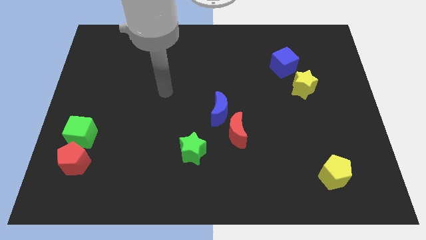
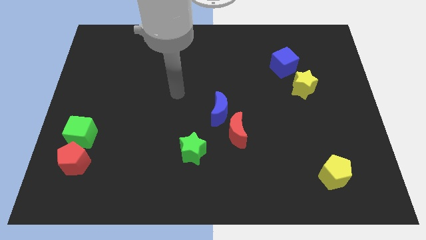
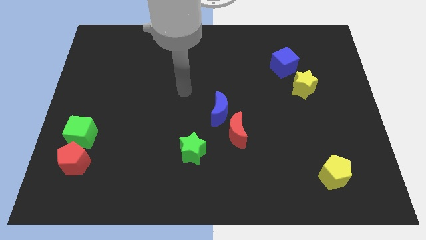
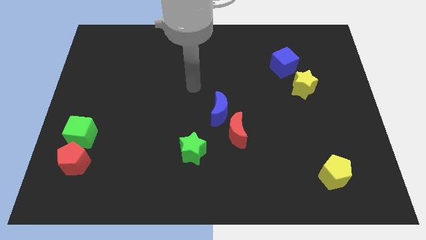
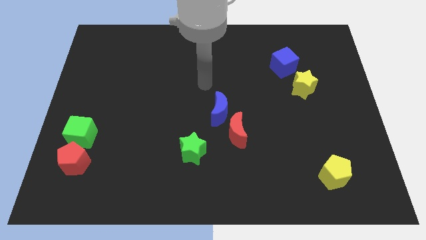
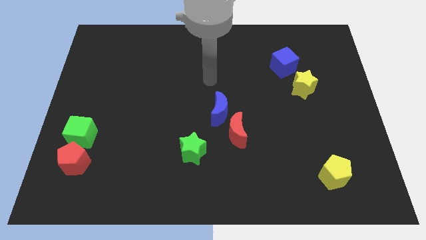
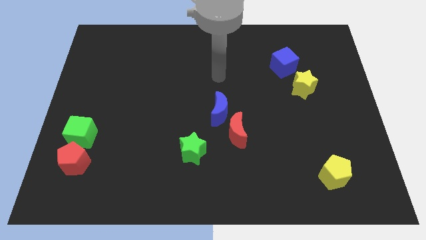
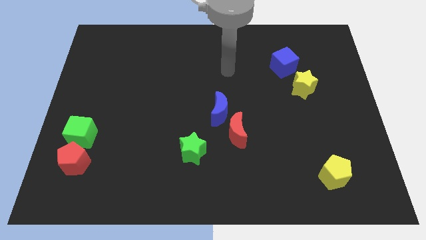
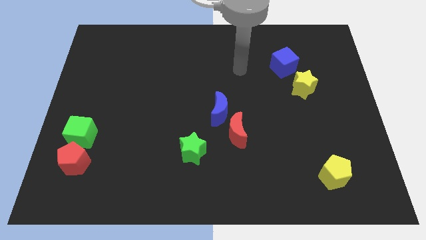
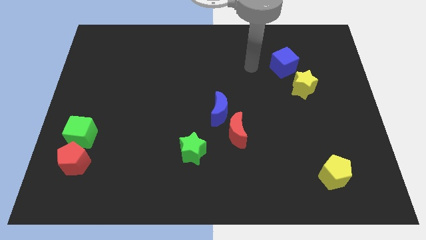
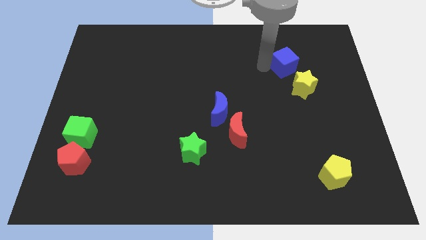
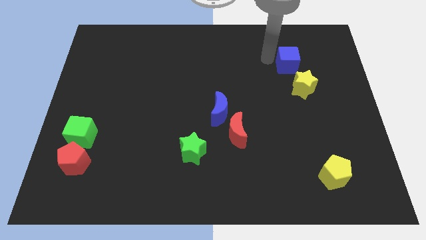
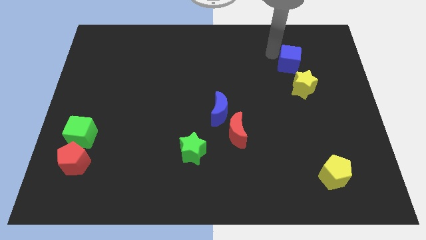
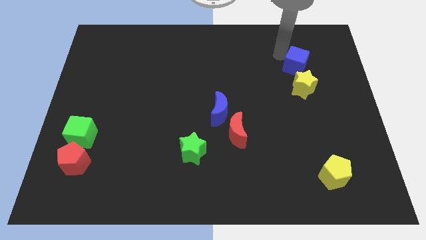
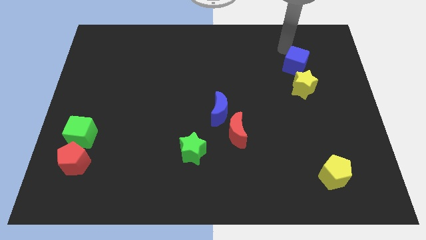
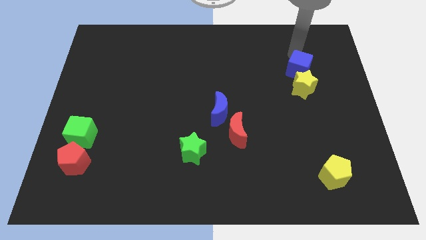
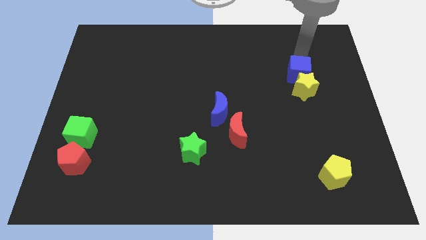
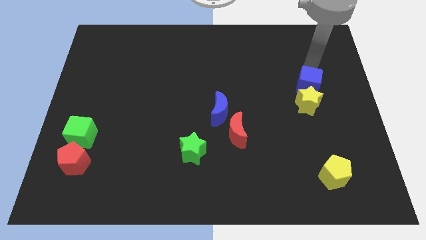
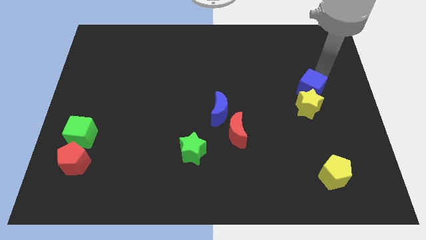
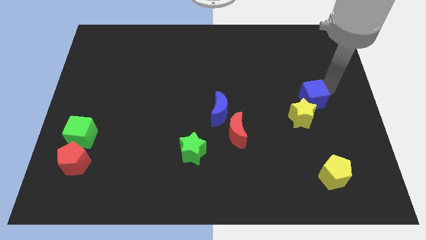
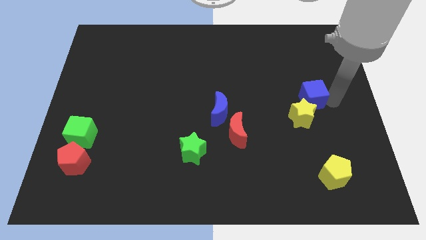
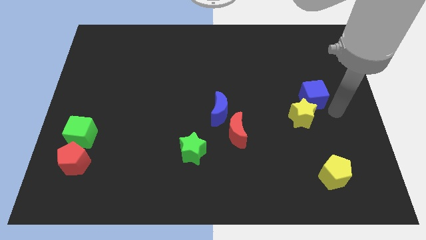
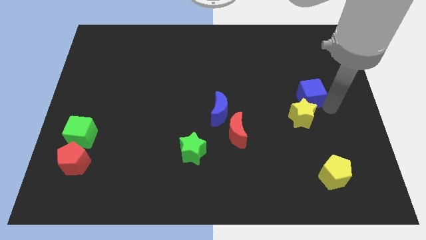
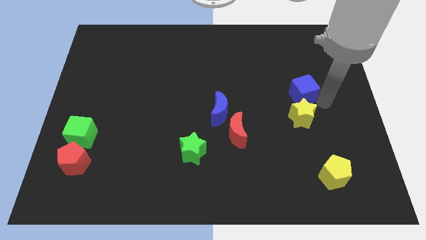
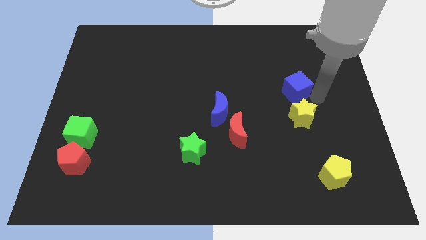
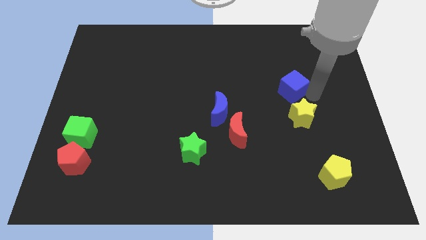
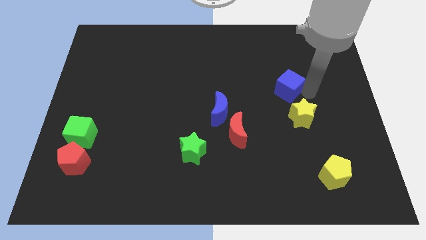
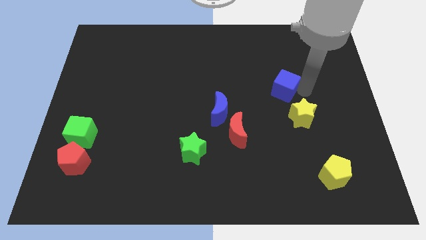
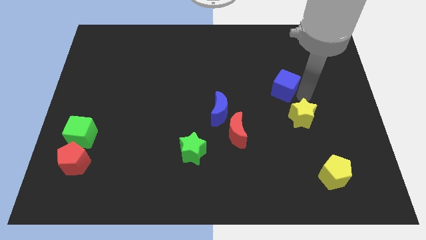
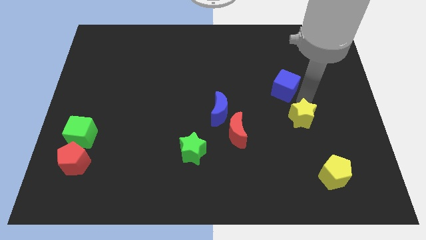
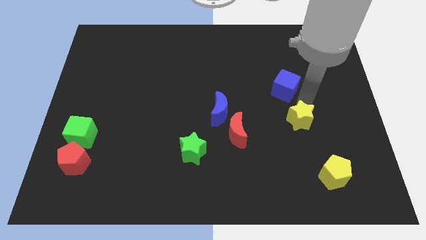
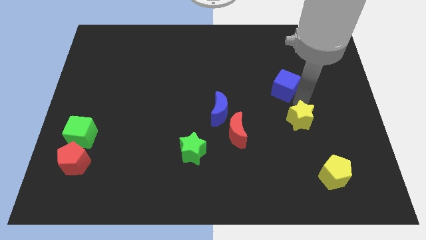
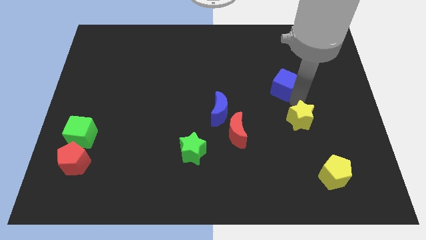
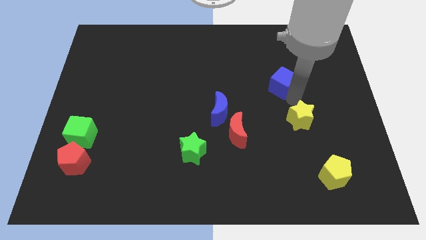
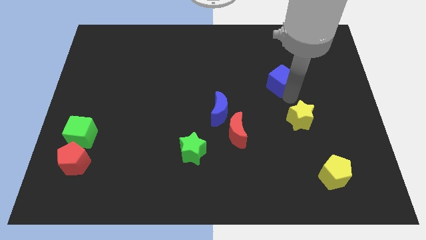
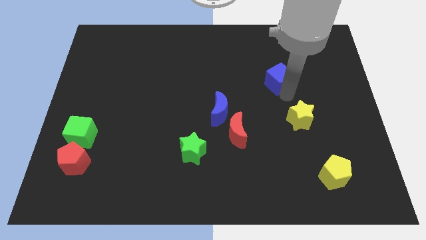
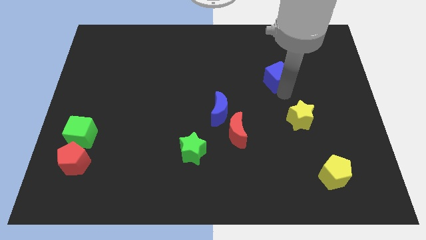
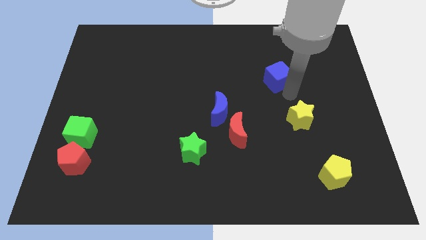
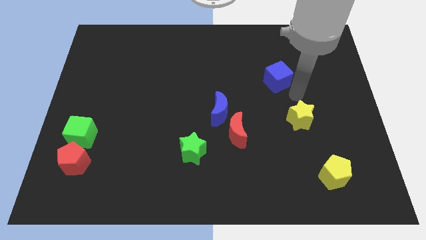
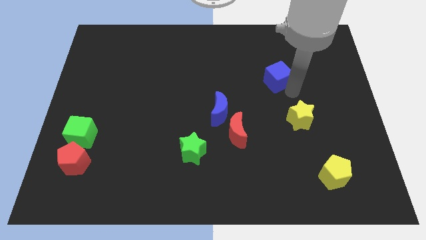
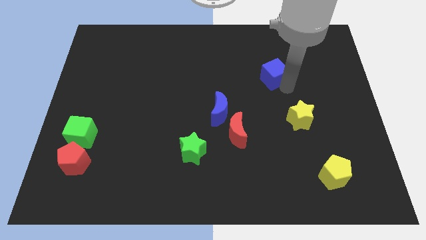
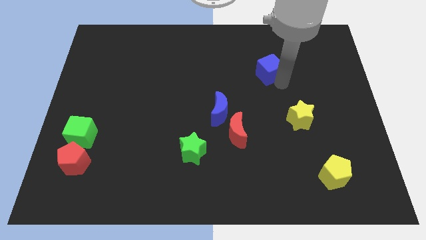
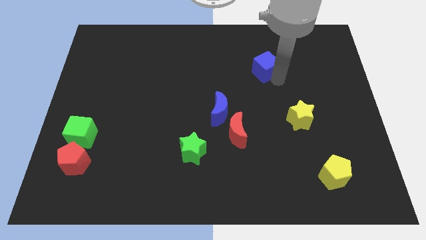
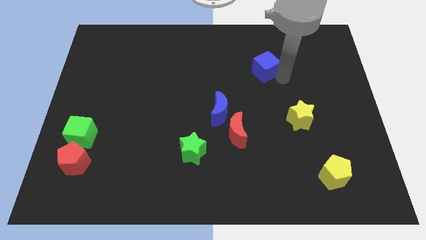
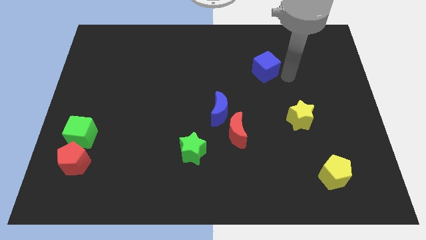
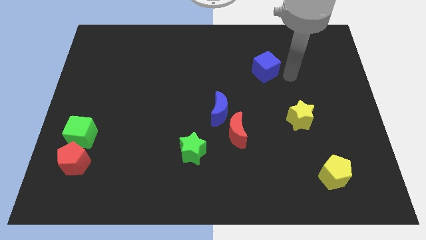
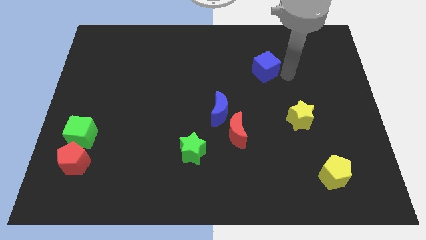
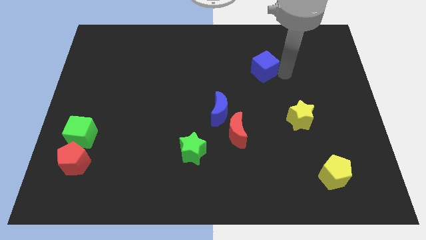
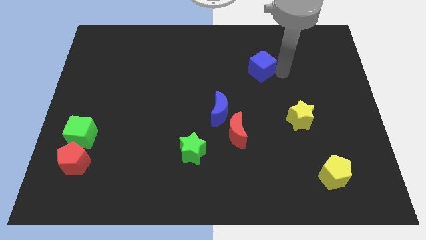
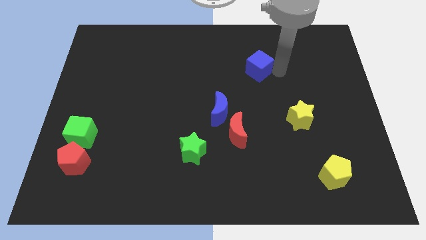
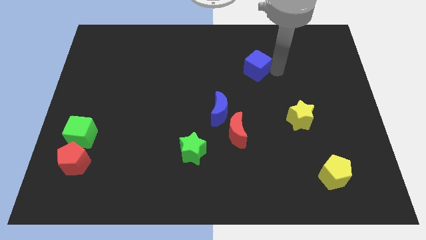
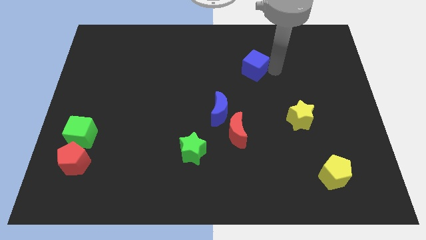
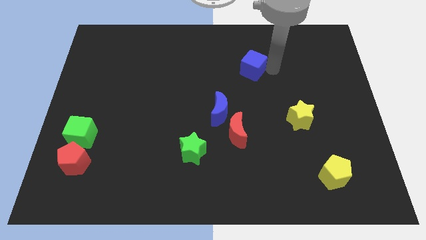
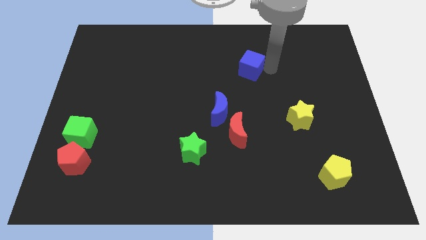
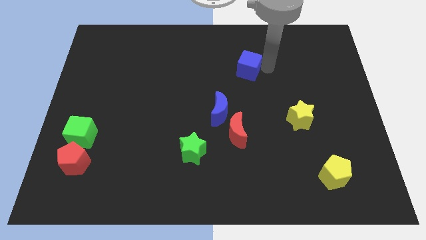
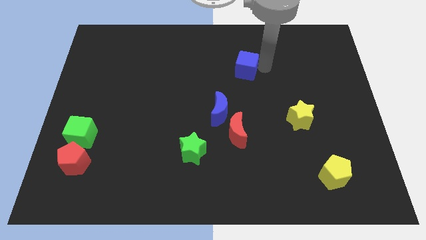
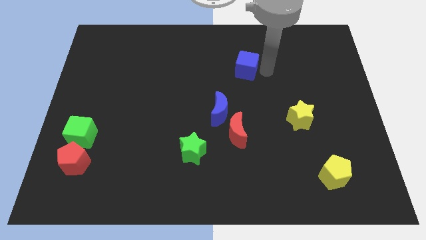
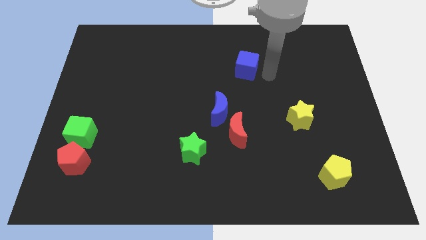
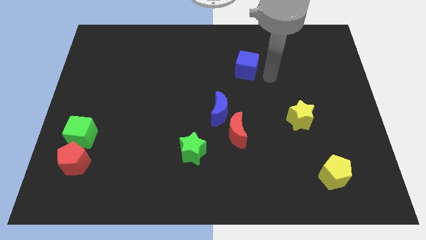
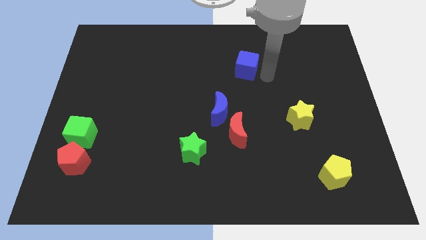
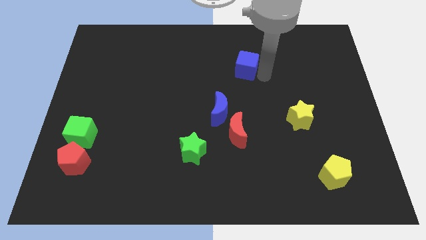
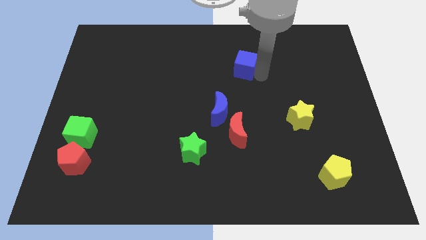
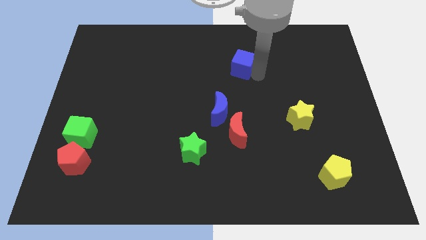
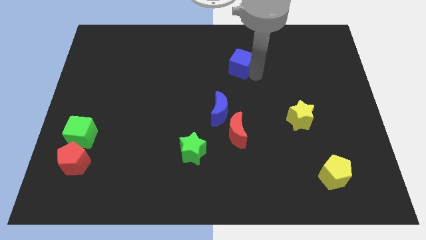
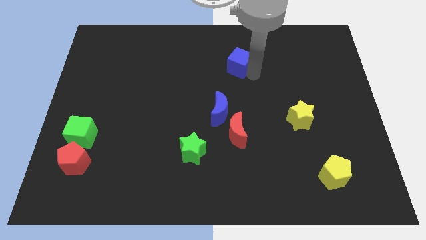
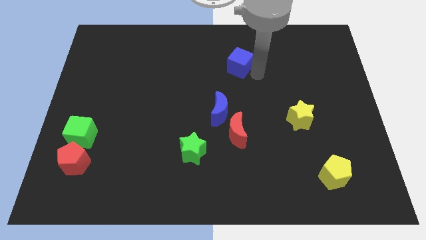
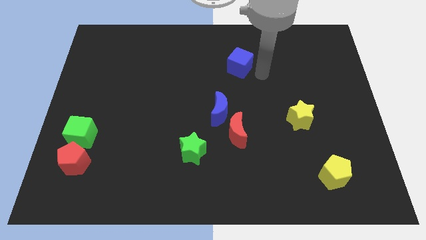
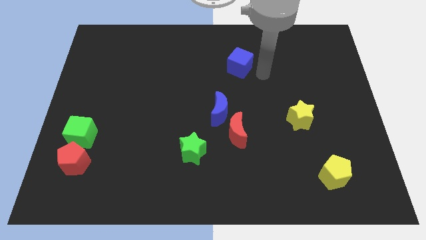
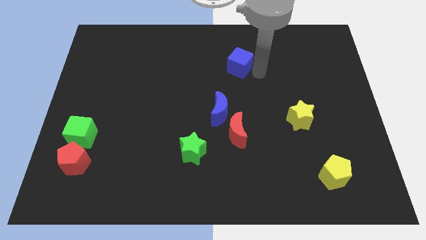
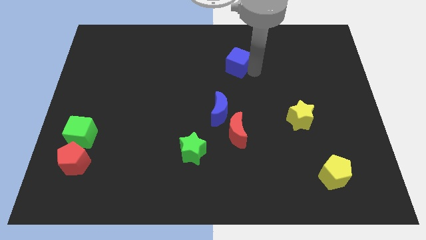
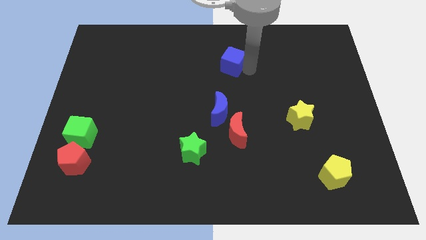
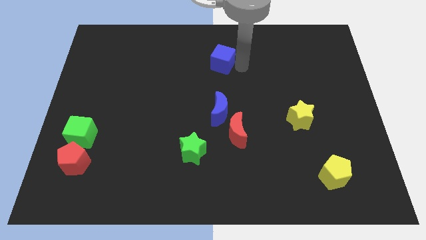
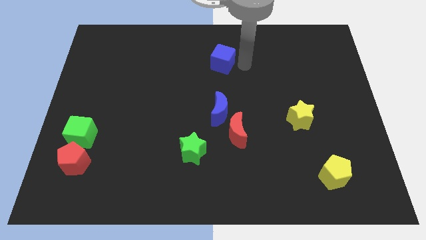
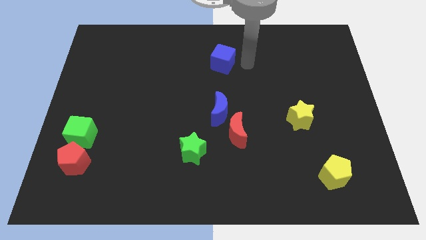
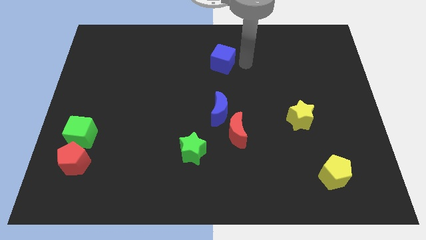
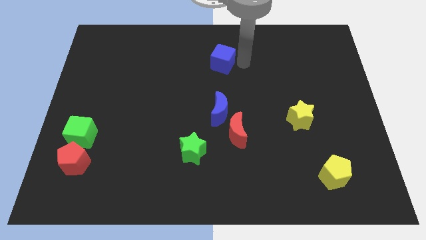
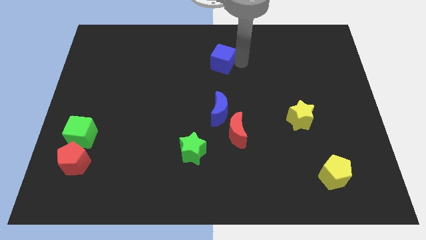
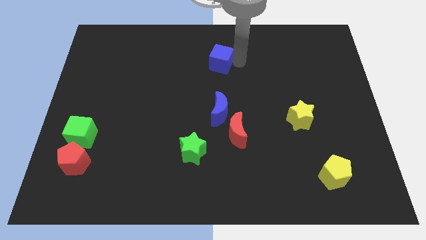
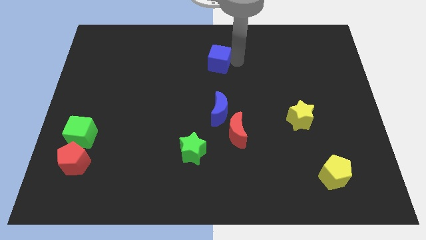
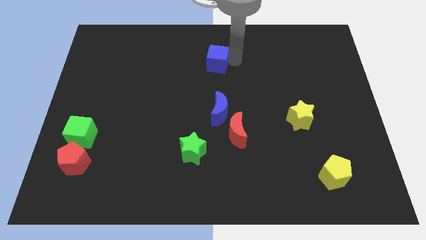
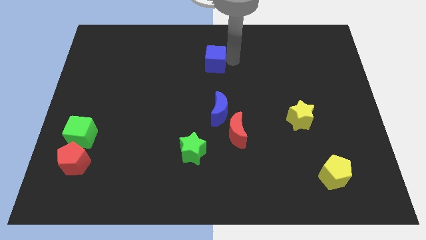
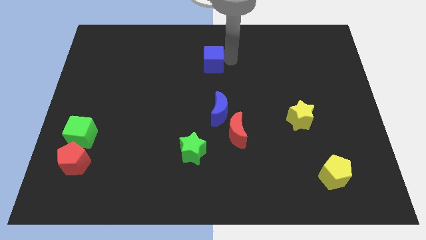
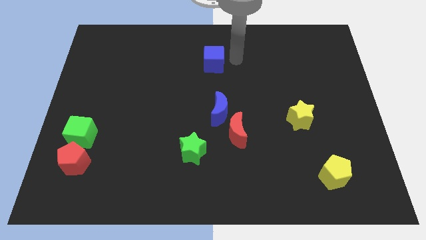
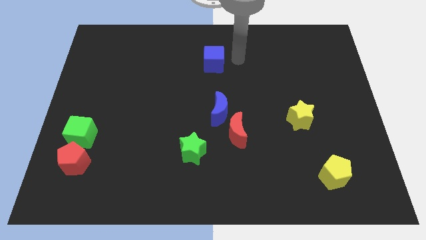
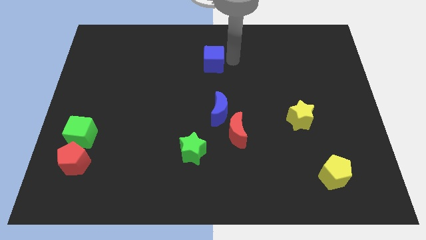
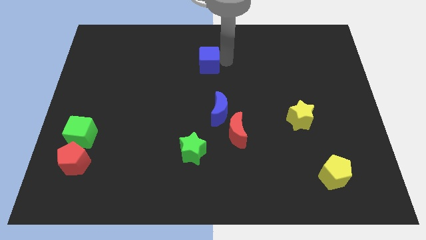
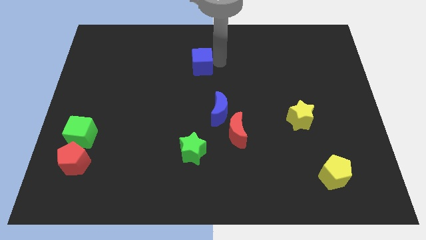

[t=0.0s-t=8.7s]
slide the blue cube left
